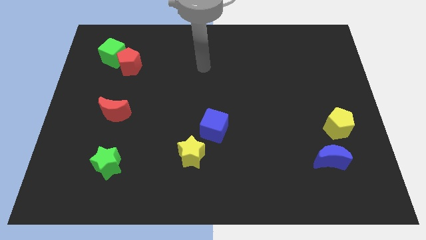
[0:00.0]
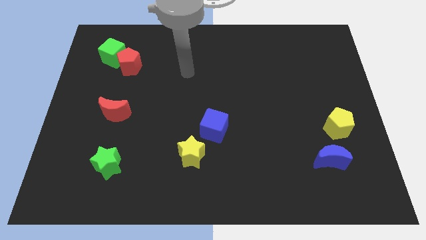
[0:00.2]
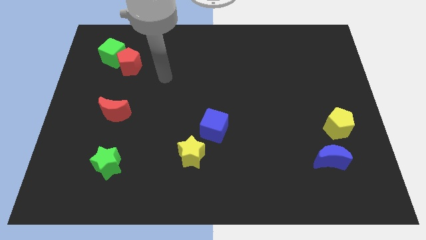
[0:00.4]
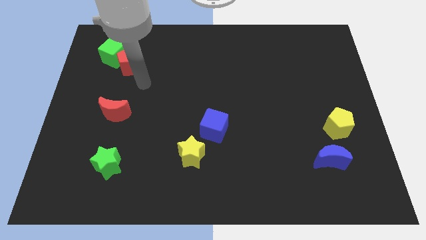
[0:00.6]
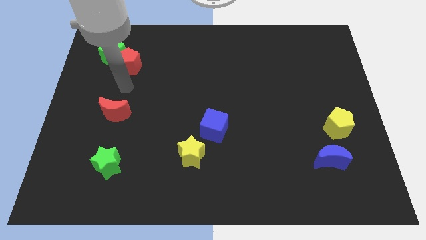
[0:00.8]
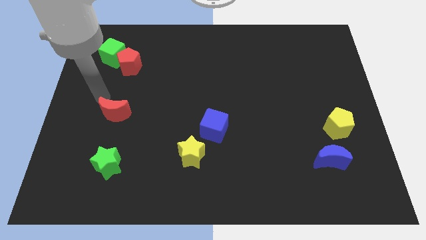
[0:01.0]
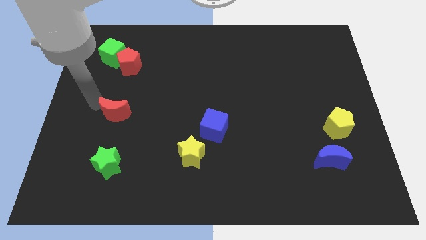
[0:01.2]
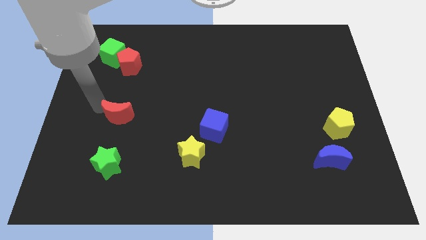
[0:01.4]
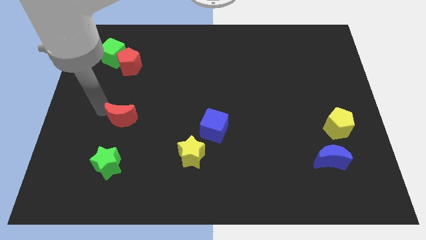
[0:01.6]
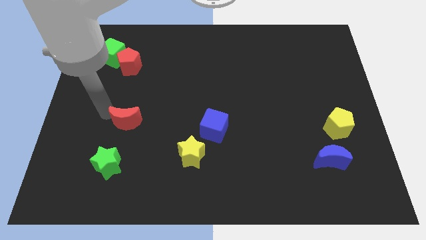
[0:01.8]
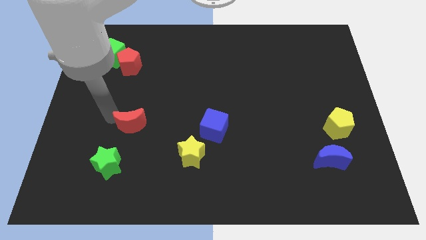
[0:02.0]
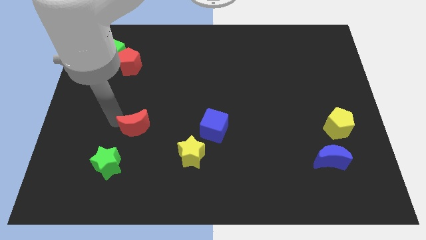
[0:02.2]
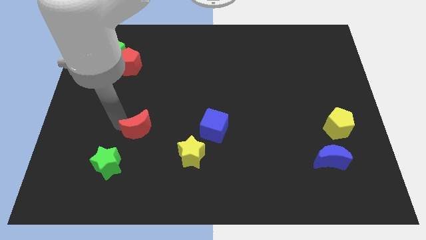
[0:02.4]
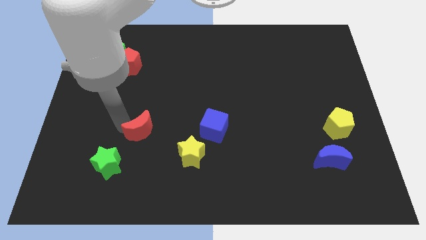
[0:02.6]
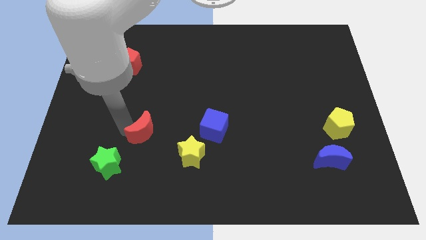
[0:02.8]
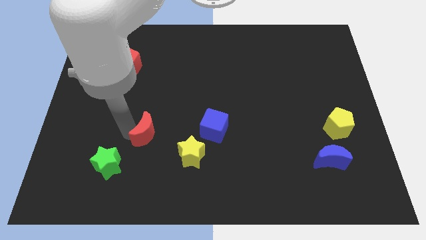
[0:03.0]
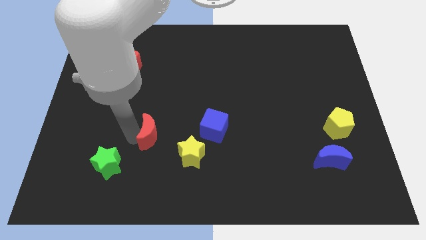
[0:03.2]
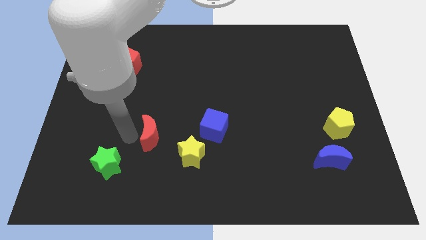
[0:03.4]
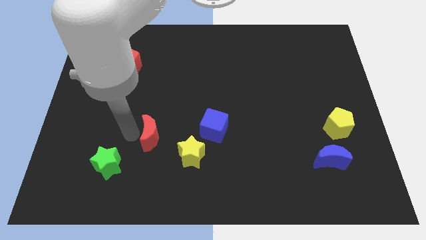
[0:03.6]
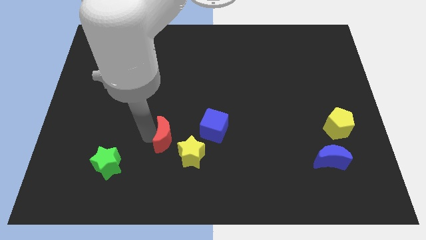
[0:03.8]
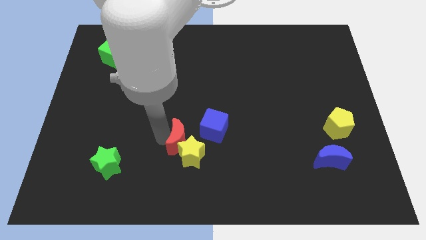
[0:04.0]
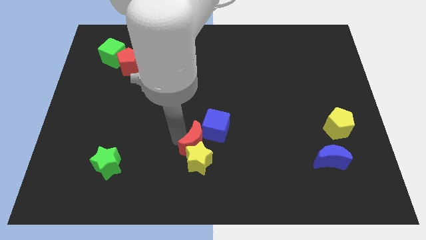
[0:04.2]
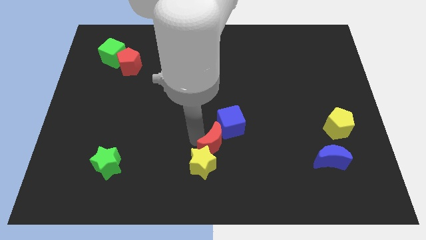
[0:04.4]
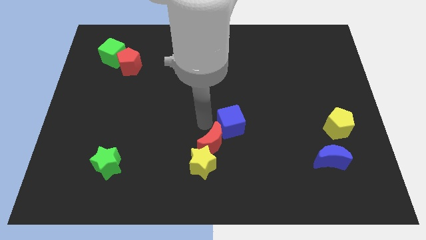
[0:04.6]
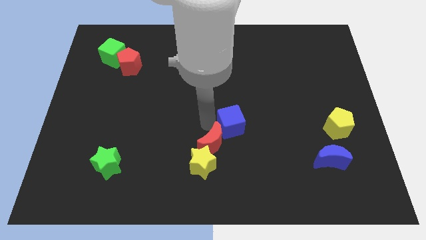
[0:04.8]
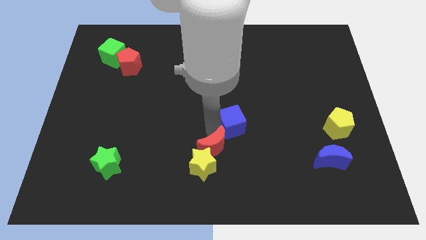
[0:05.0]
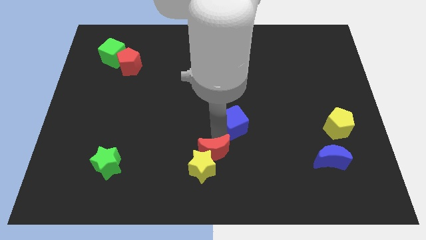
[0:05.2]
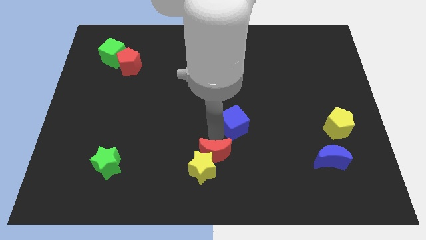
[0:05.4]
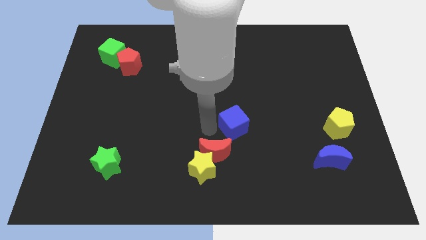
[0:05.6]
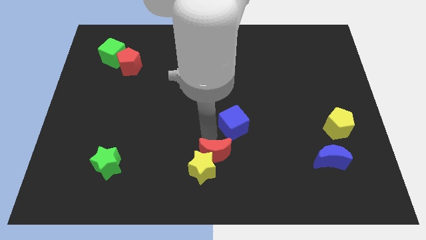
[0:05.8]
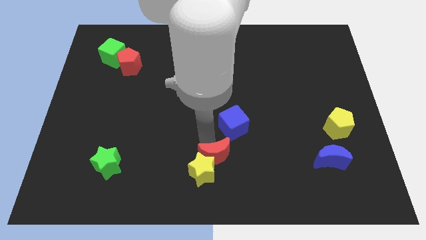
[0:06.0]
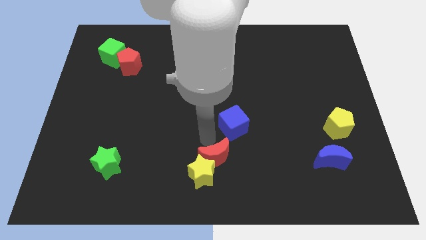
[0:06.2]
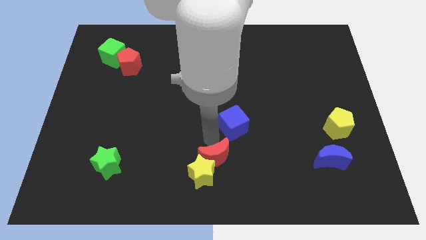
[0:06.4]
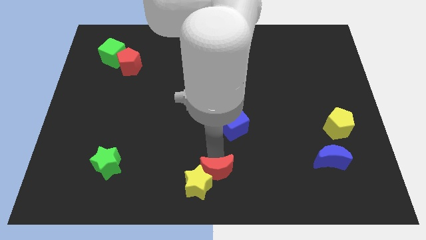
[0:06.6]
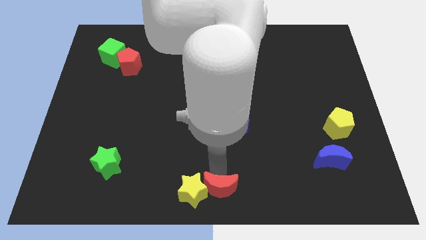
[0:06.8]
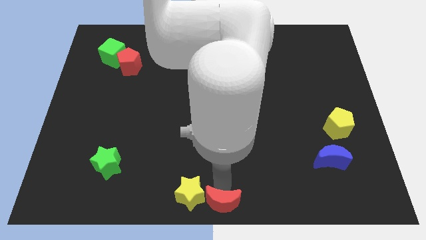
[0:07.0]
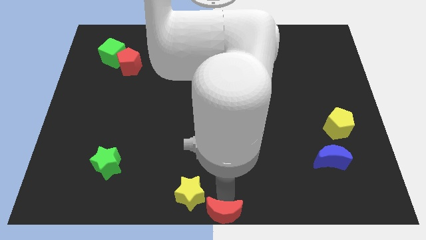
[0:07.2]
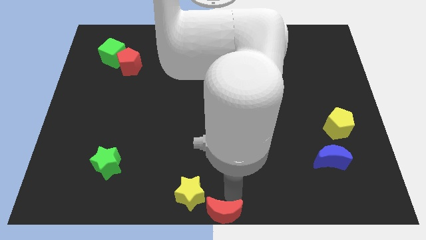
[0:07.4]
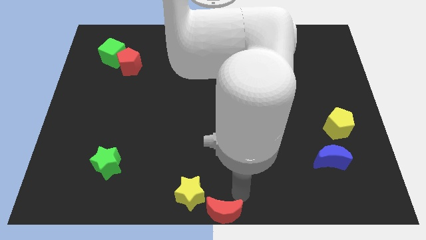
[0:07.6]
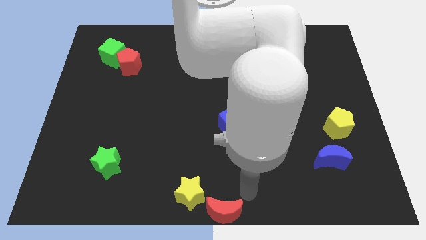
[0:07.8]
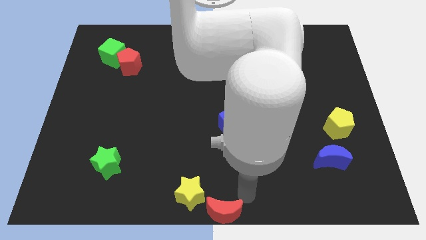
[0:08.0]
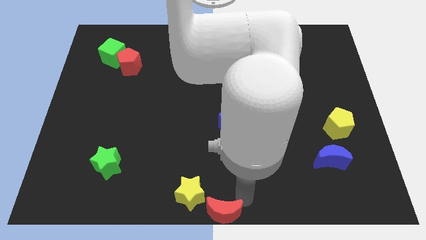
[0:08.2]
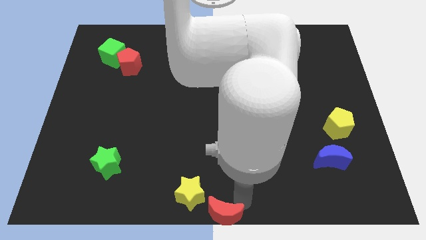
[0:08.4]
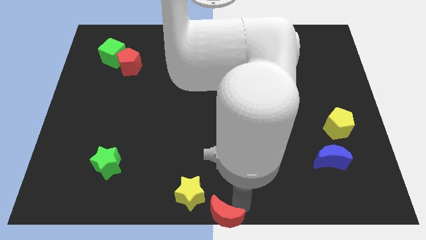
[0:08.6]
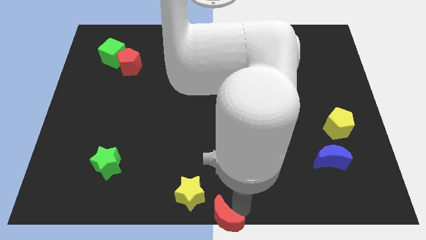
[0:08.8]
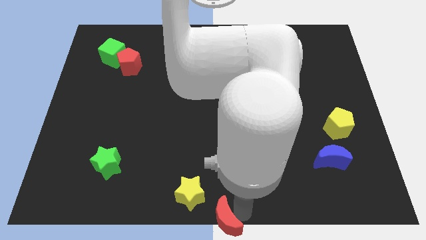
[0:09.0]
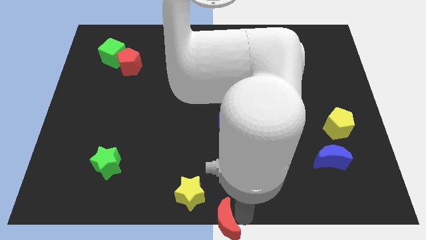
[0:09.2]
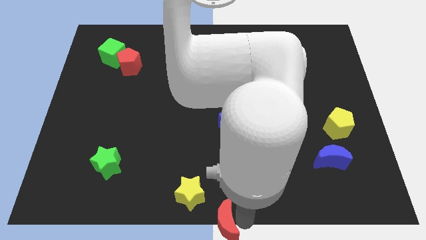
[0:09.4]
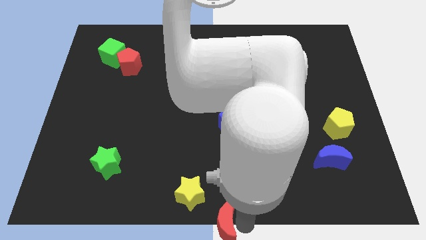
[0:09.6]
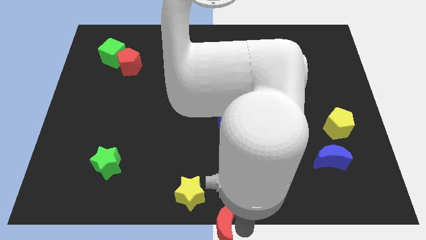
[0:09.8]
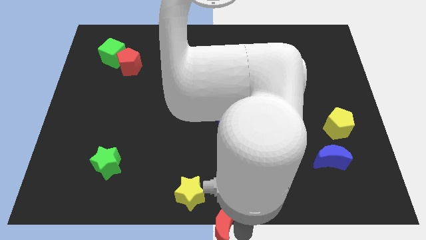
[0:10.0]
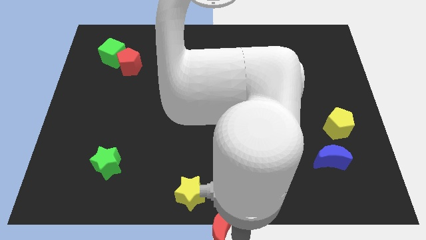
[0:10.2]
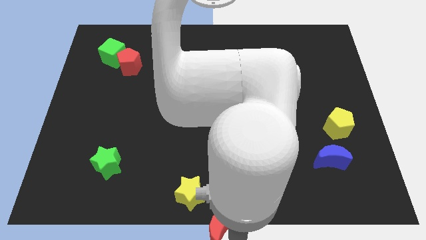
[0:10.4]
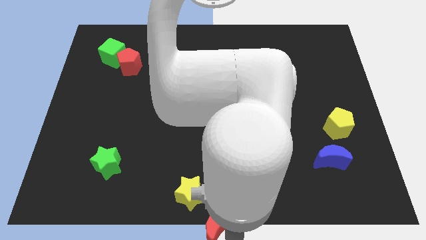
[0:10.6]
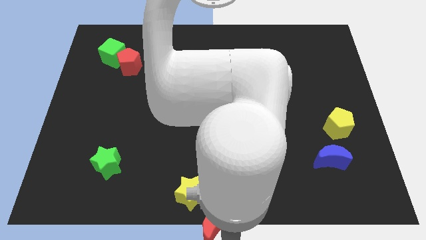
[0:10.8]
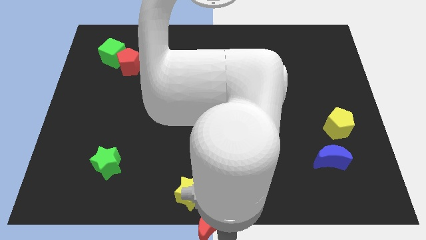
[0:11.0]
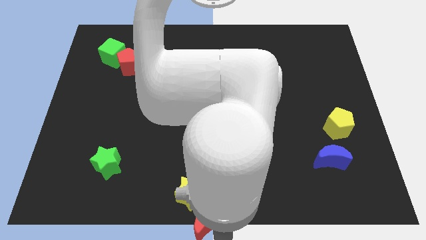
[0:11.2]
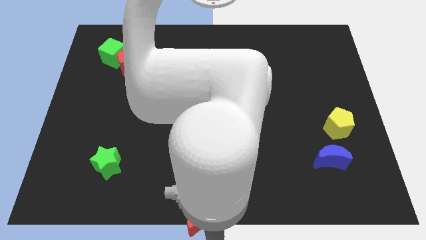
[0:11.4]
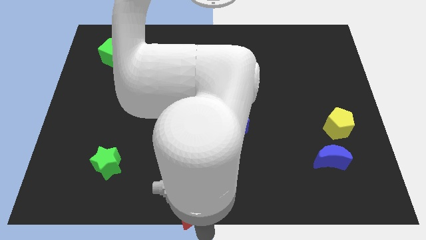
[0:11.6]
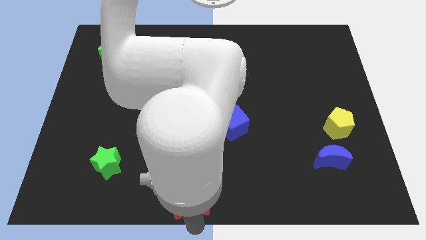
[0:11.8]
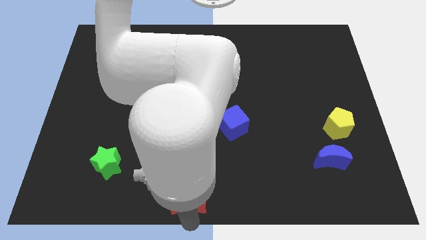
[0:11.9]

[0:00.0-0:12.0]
push the red moon diagonally down and to the right of the yellow star

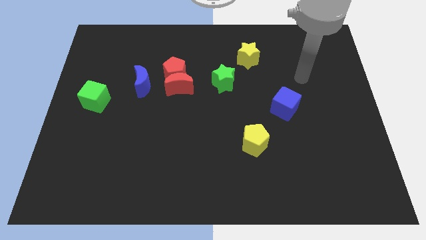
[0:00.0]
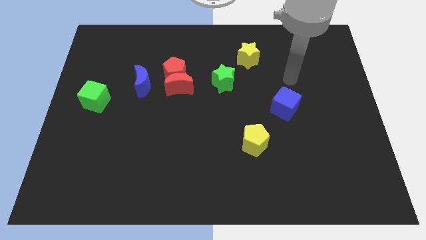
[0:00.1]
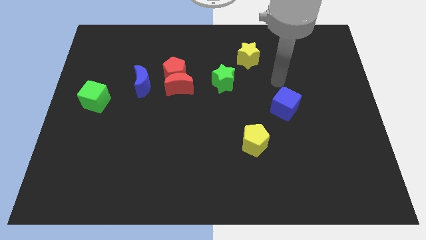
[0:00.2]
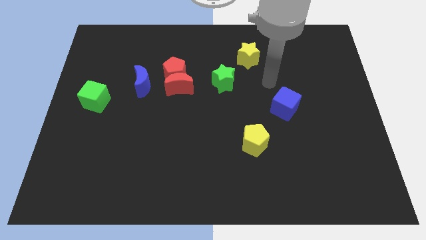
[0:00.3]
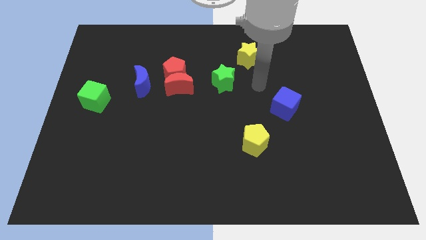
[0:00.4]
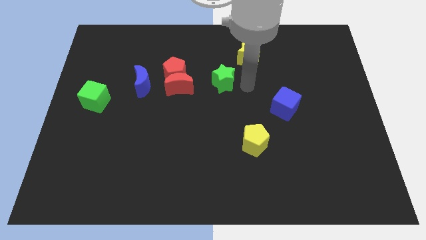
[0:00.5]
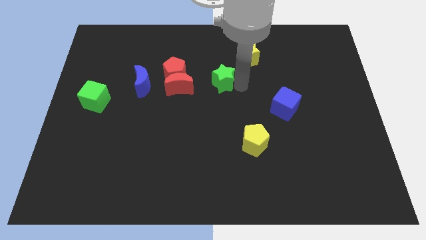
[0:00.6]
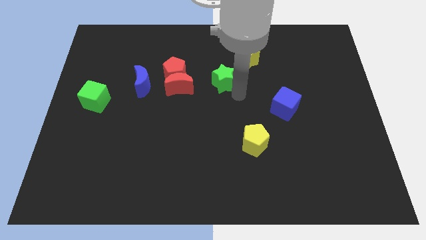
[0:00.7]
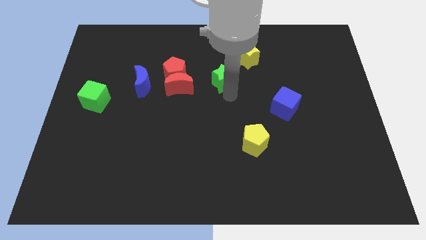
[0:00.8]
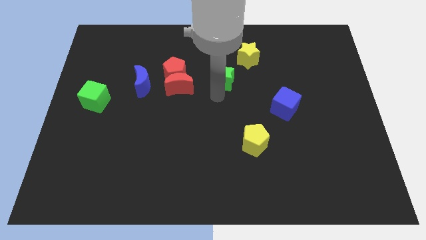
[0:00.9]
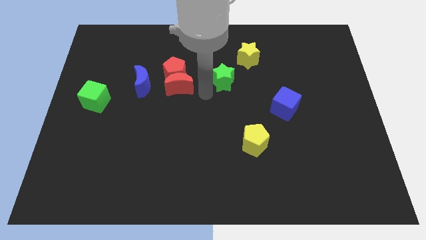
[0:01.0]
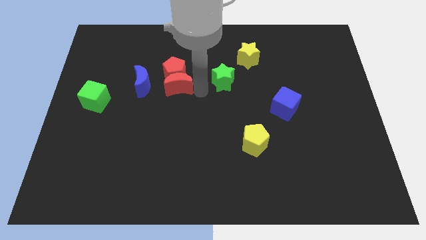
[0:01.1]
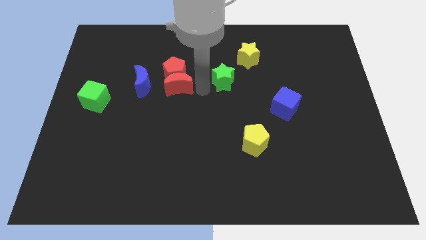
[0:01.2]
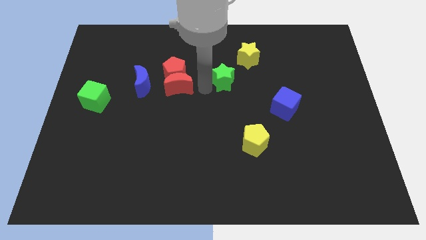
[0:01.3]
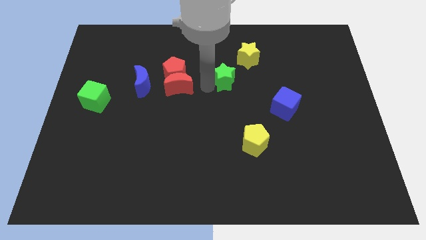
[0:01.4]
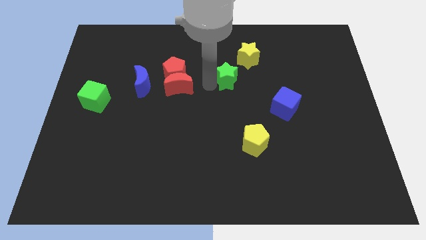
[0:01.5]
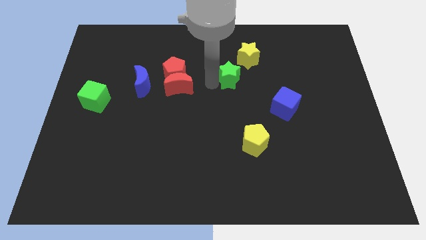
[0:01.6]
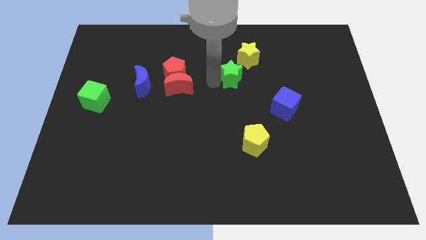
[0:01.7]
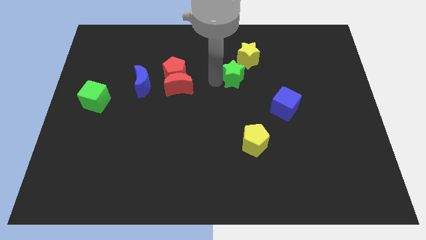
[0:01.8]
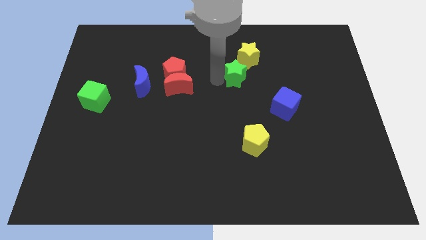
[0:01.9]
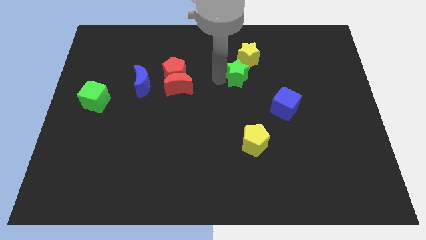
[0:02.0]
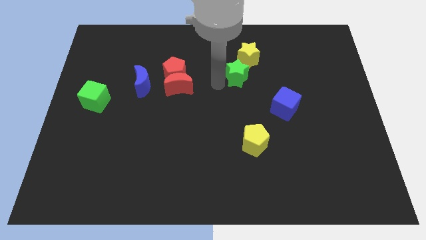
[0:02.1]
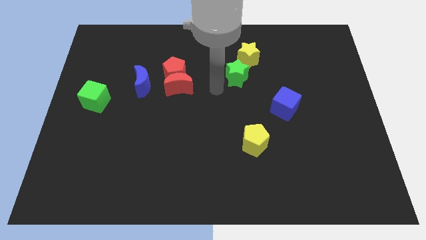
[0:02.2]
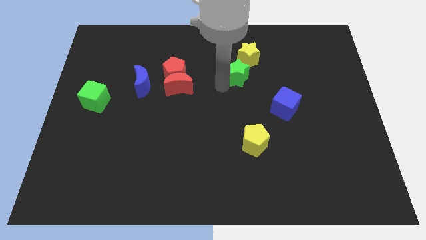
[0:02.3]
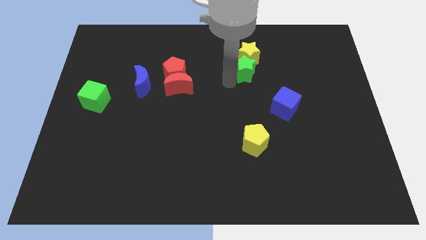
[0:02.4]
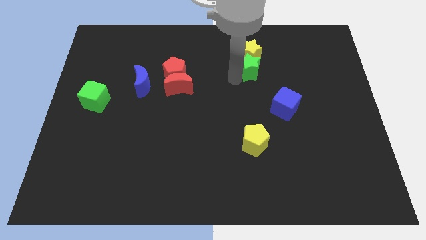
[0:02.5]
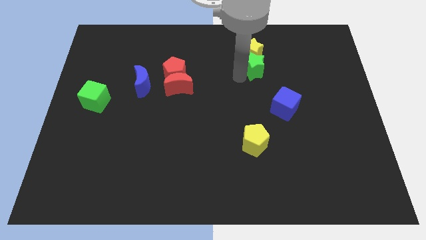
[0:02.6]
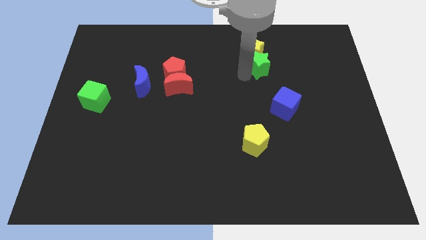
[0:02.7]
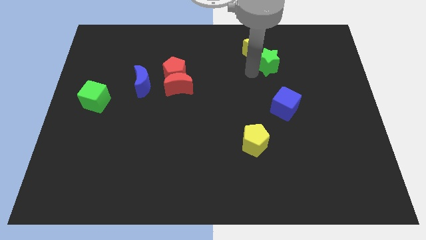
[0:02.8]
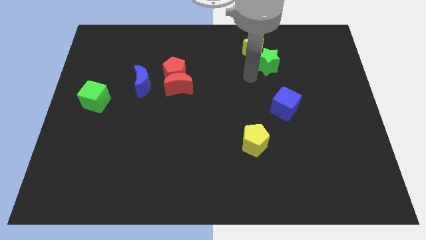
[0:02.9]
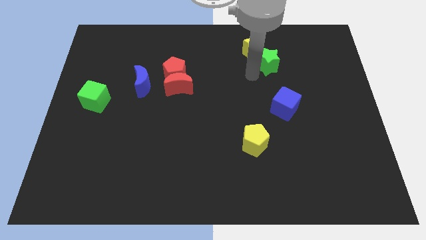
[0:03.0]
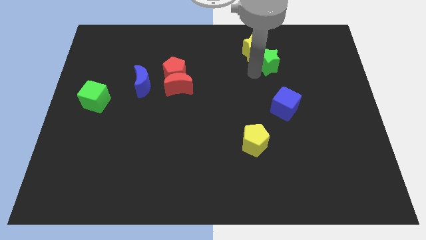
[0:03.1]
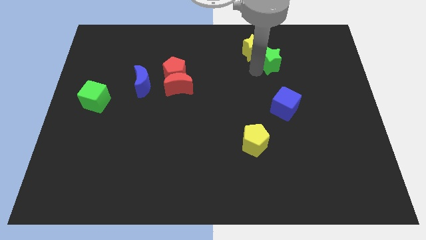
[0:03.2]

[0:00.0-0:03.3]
move the green star right of the yellow star
